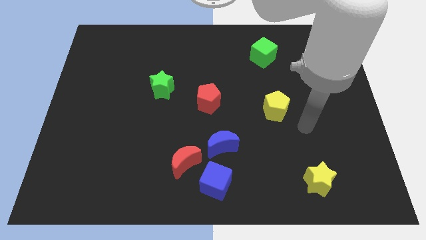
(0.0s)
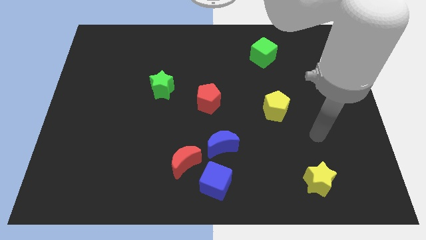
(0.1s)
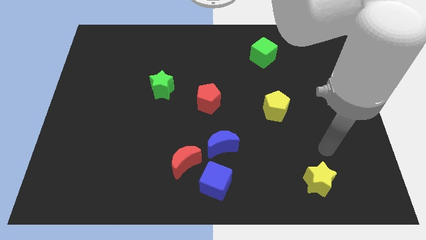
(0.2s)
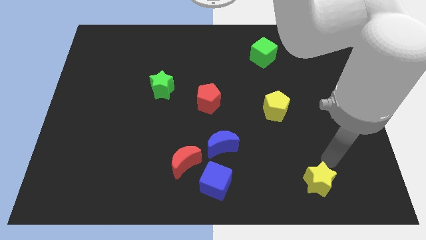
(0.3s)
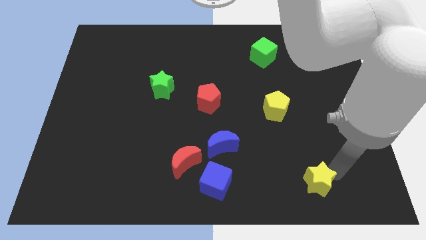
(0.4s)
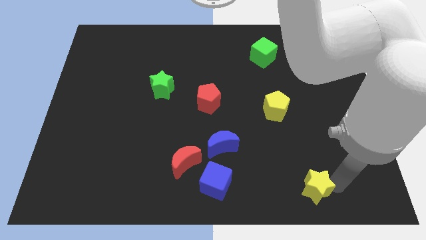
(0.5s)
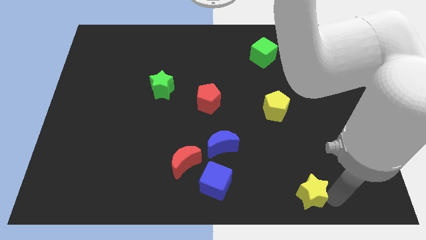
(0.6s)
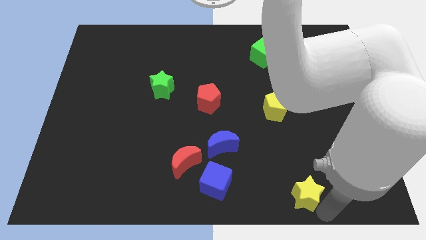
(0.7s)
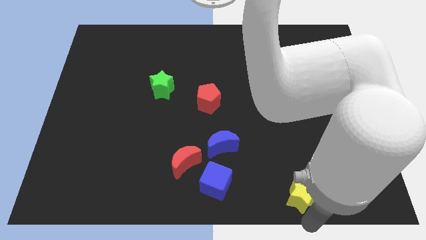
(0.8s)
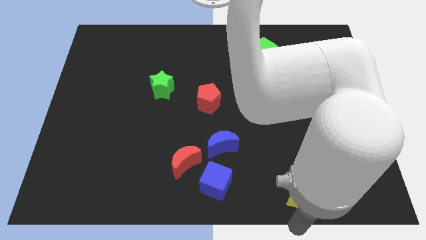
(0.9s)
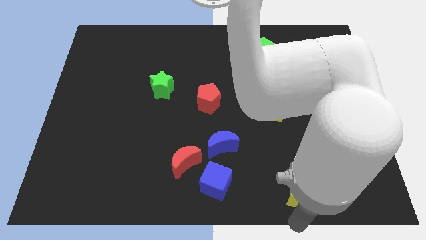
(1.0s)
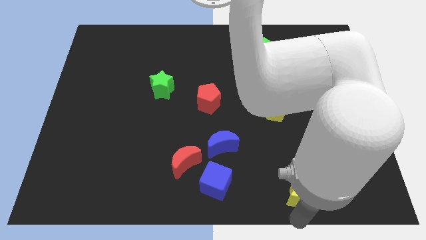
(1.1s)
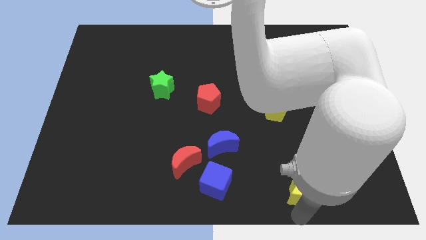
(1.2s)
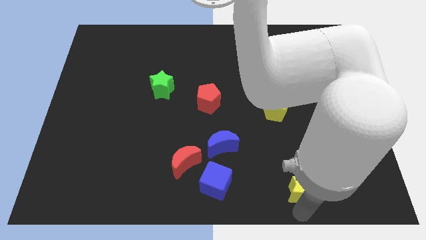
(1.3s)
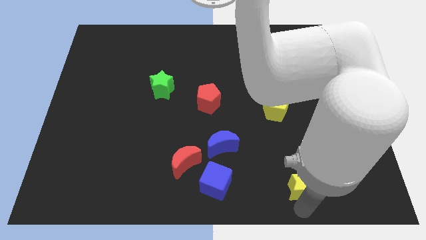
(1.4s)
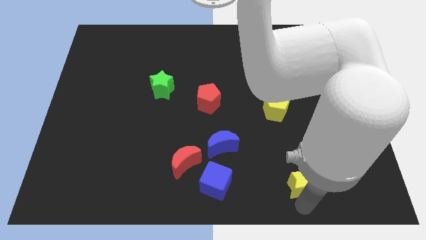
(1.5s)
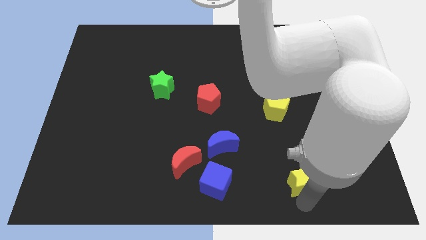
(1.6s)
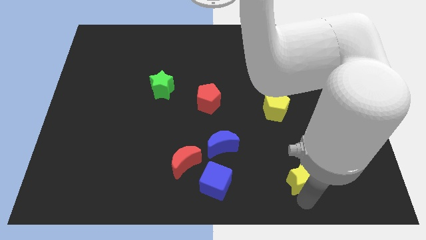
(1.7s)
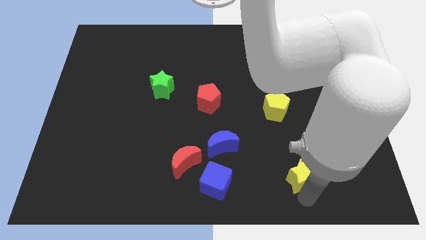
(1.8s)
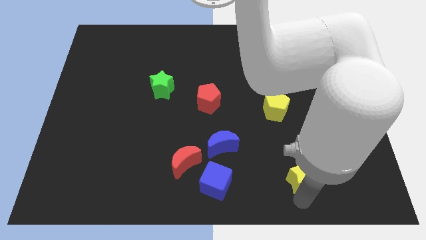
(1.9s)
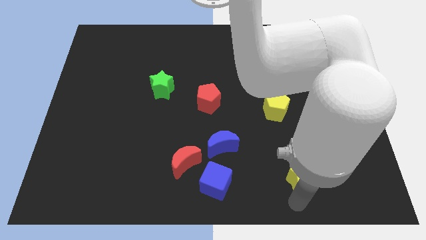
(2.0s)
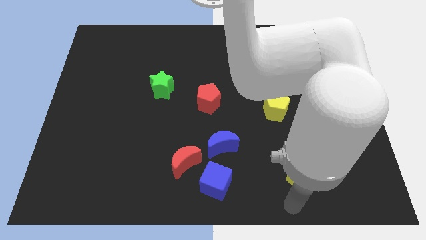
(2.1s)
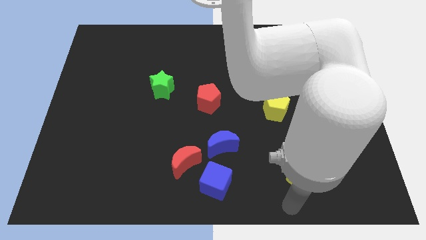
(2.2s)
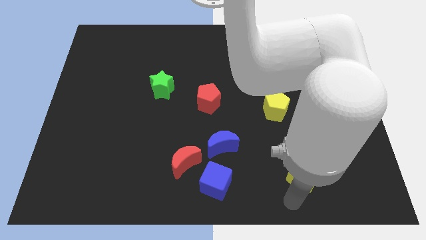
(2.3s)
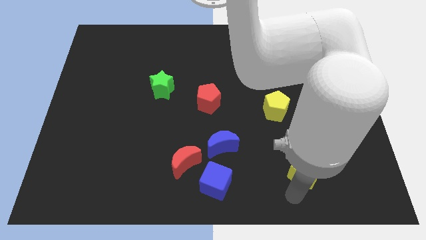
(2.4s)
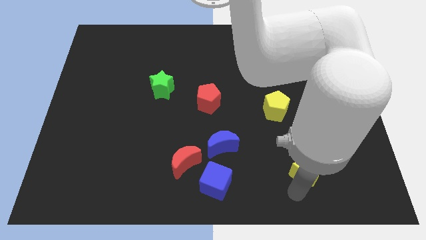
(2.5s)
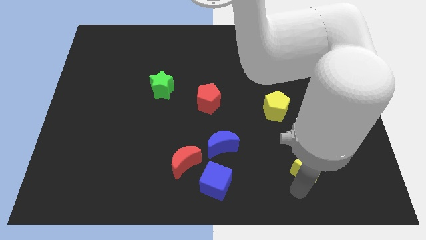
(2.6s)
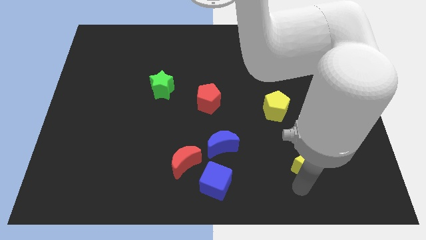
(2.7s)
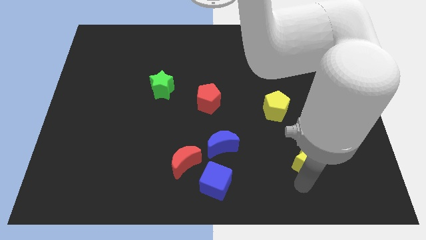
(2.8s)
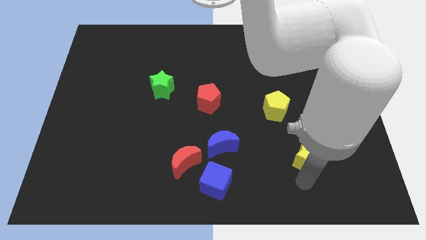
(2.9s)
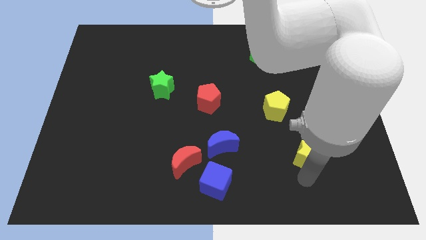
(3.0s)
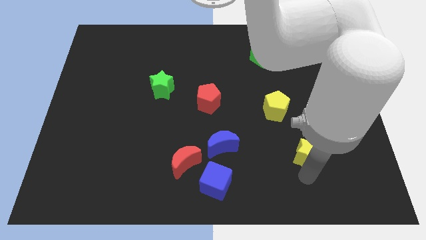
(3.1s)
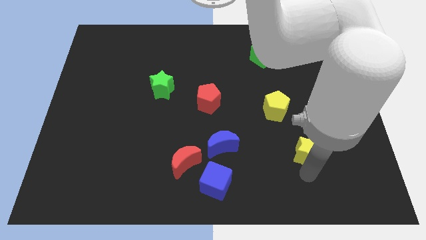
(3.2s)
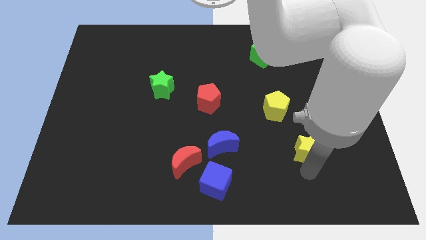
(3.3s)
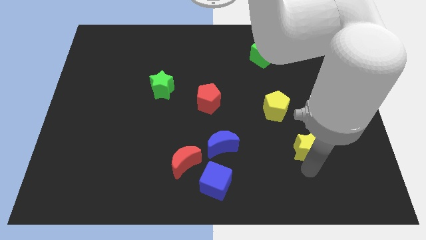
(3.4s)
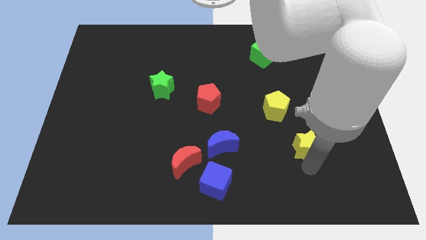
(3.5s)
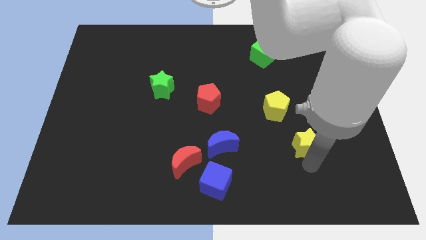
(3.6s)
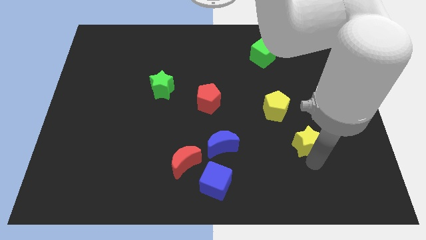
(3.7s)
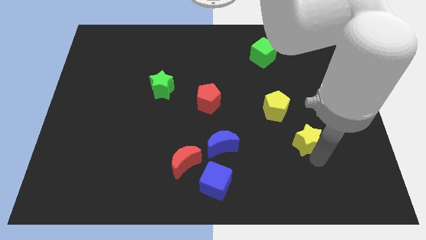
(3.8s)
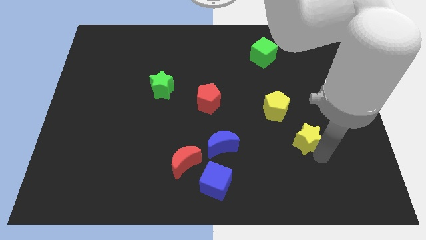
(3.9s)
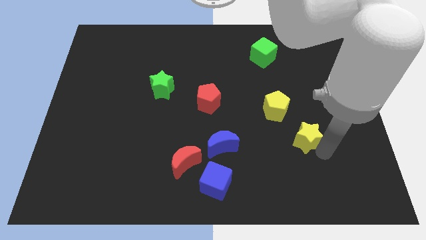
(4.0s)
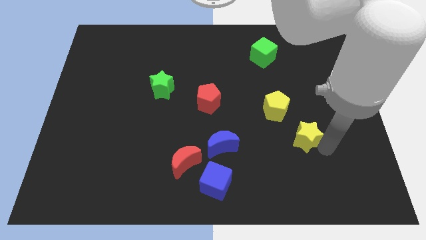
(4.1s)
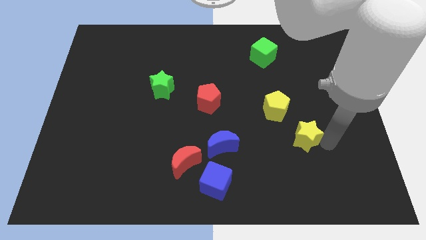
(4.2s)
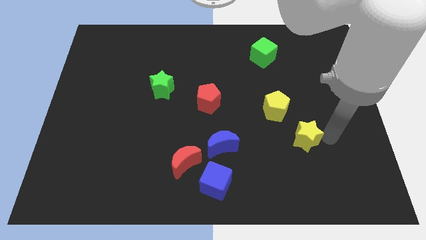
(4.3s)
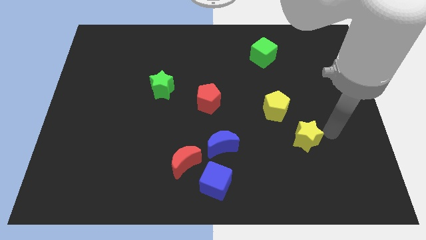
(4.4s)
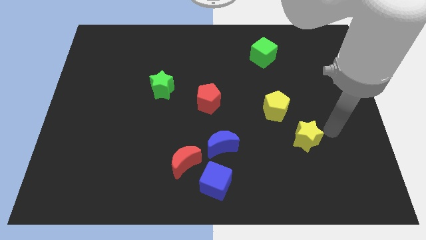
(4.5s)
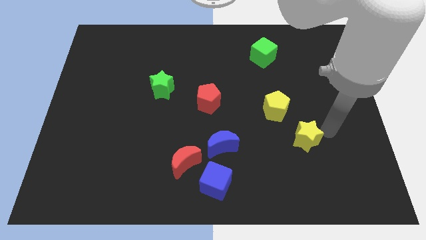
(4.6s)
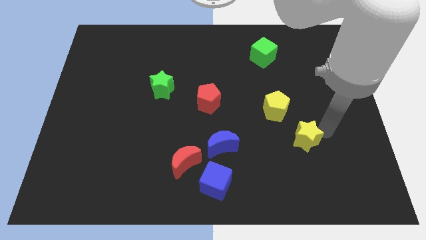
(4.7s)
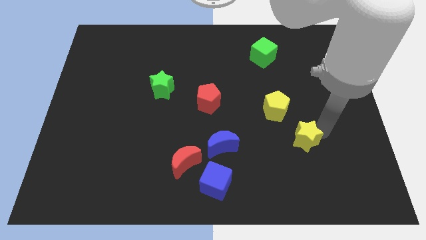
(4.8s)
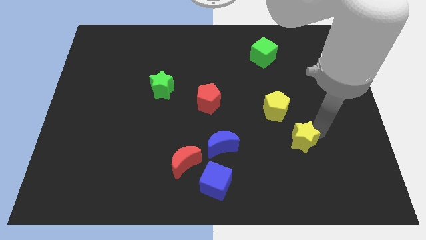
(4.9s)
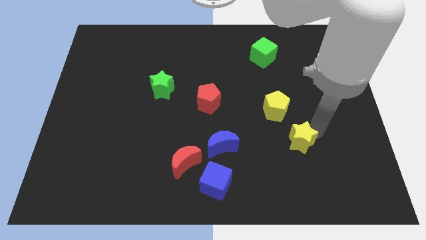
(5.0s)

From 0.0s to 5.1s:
slide the yellow star up and left a little

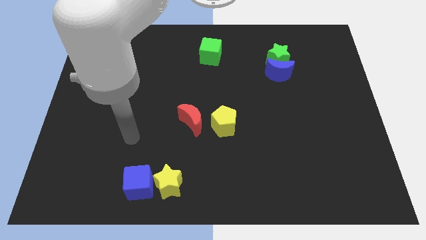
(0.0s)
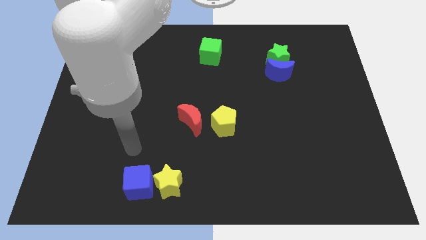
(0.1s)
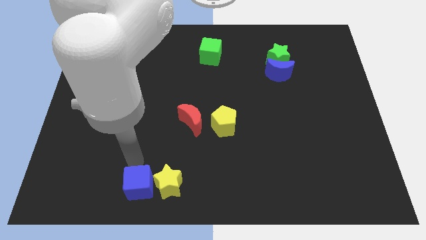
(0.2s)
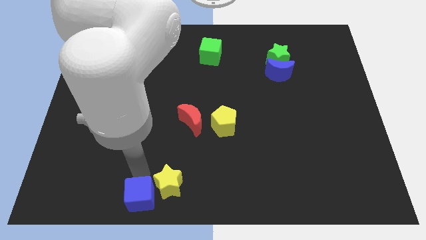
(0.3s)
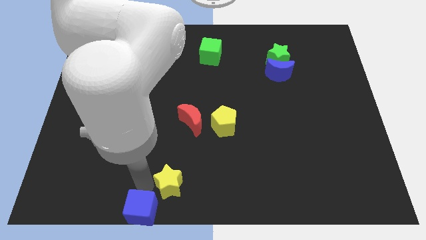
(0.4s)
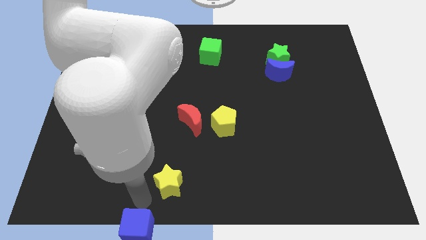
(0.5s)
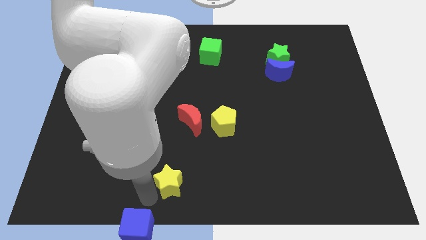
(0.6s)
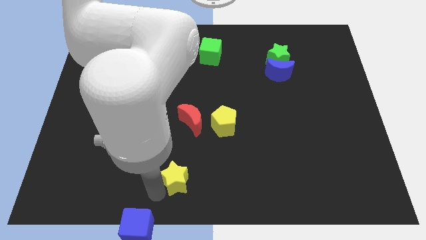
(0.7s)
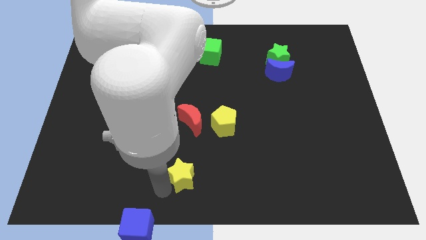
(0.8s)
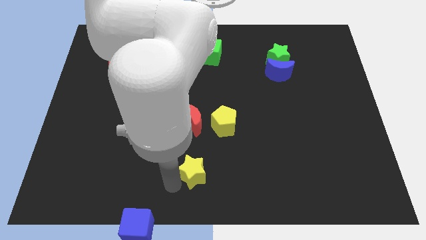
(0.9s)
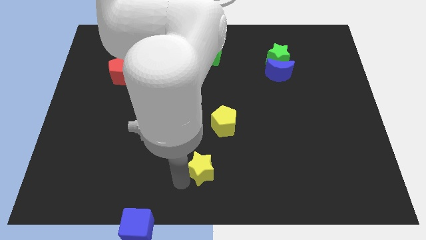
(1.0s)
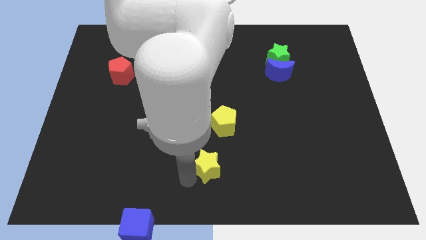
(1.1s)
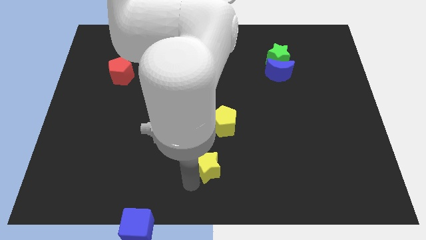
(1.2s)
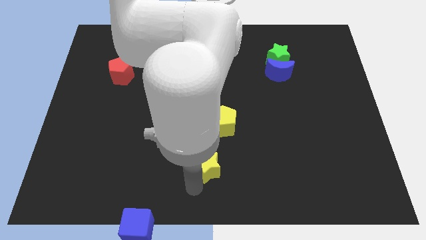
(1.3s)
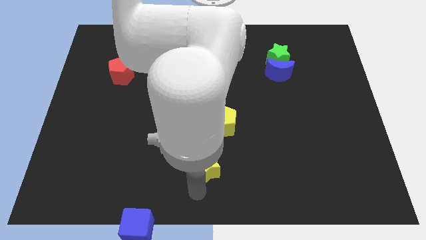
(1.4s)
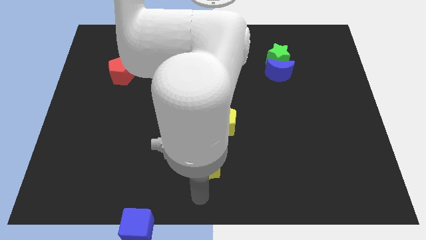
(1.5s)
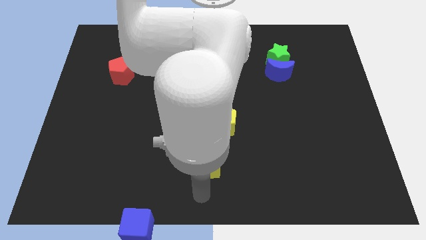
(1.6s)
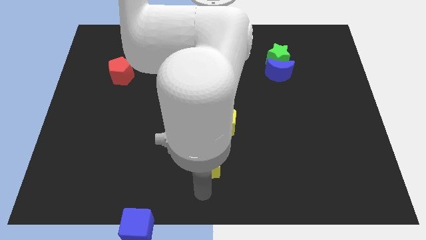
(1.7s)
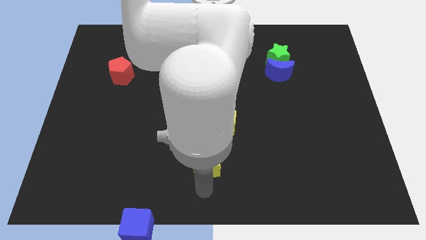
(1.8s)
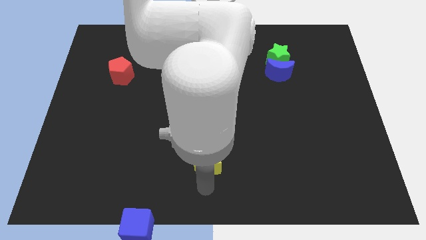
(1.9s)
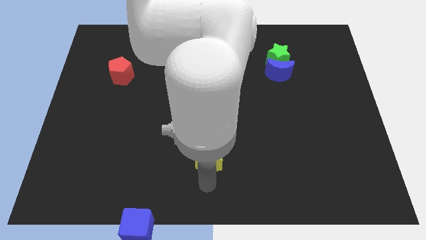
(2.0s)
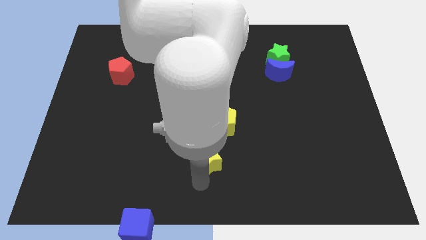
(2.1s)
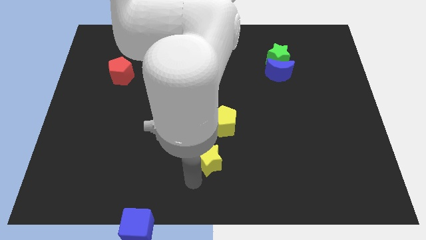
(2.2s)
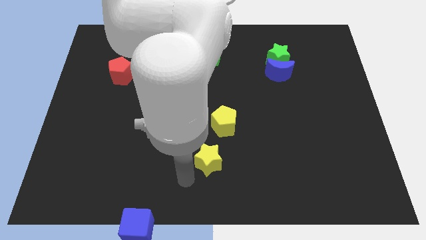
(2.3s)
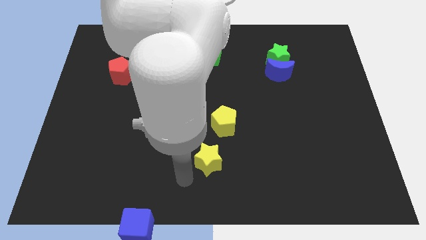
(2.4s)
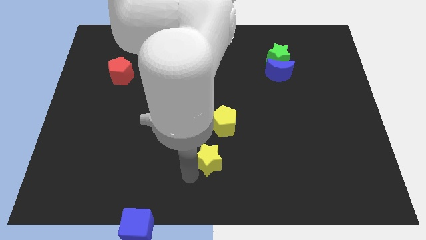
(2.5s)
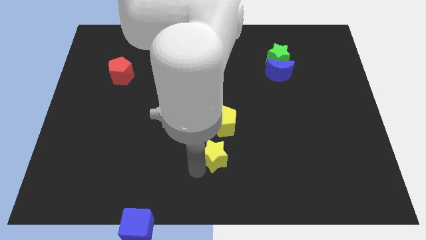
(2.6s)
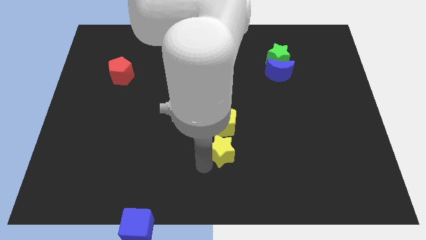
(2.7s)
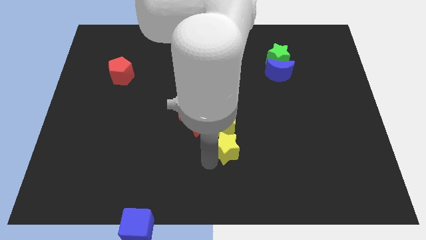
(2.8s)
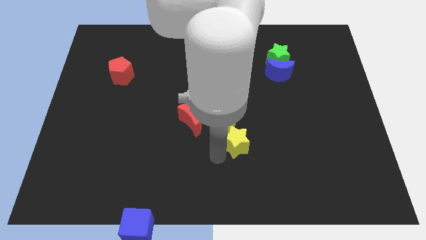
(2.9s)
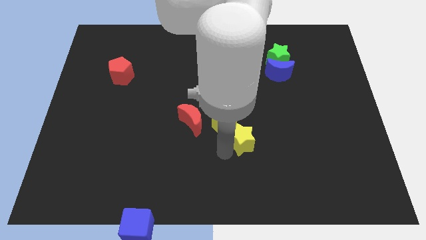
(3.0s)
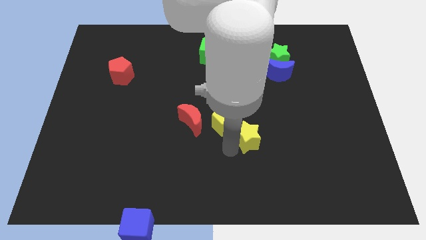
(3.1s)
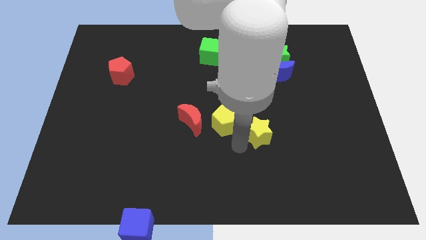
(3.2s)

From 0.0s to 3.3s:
slide the yellow star up and right diagonally
